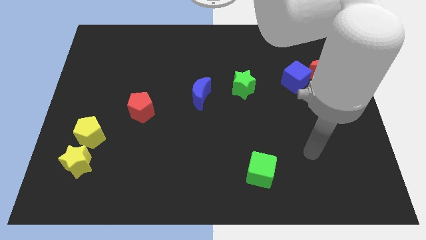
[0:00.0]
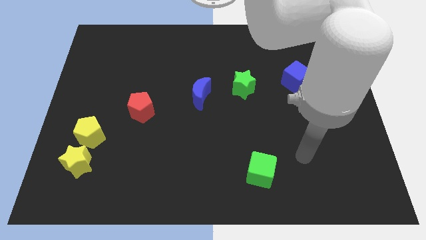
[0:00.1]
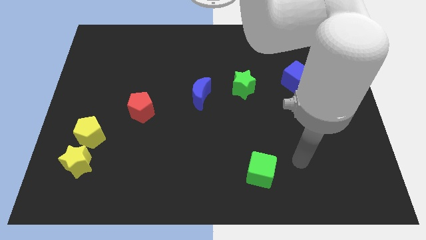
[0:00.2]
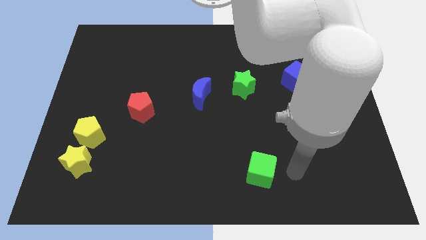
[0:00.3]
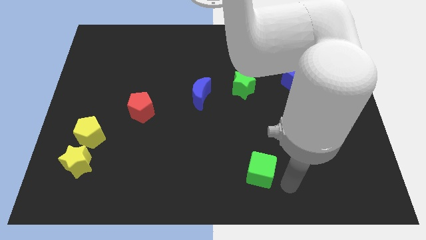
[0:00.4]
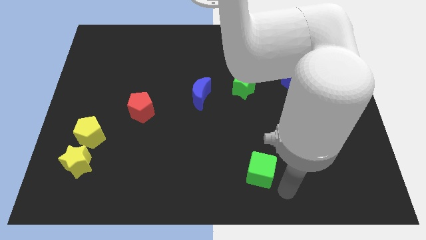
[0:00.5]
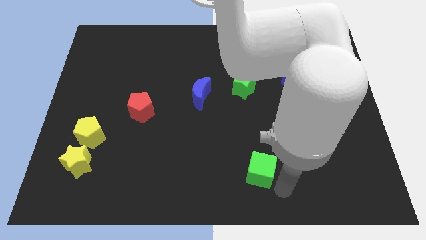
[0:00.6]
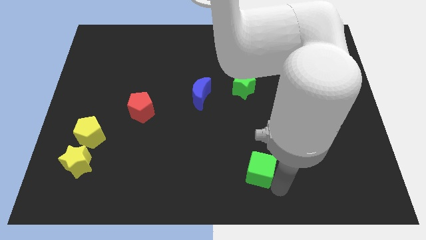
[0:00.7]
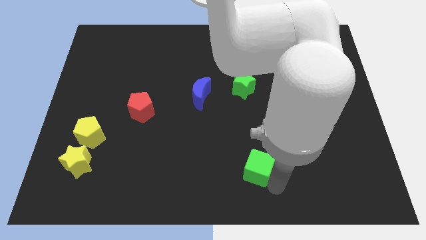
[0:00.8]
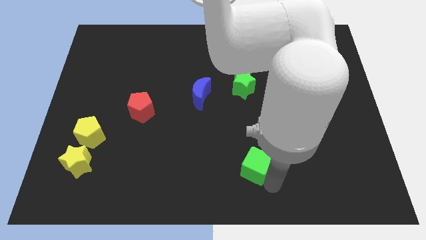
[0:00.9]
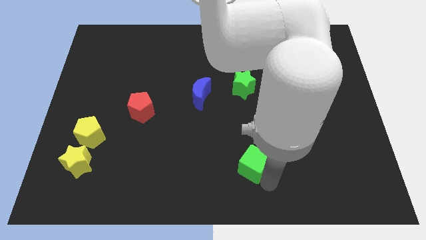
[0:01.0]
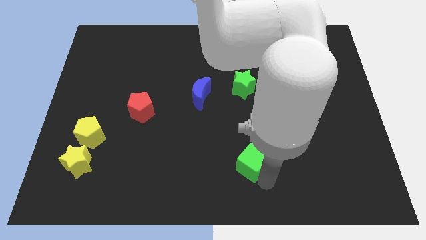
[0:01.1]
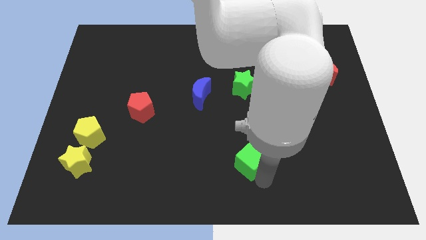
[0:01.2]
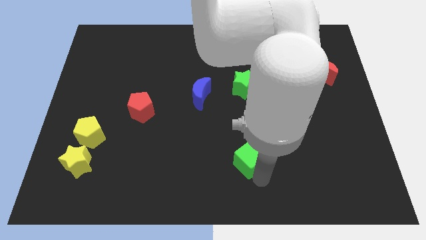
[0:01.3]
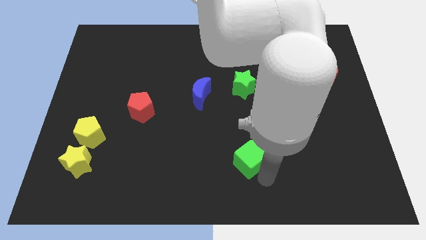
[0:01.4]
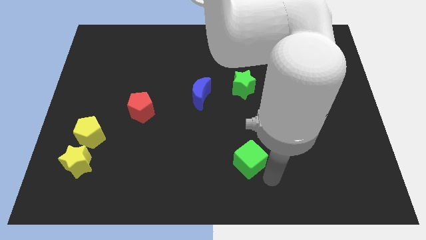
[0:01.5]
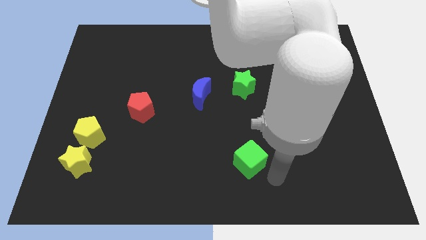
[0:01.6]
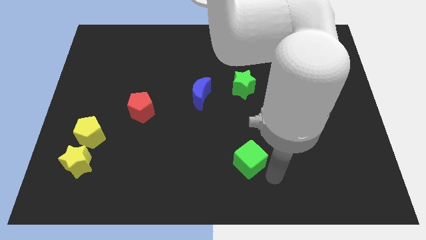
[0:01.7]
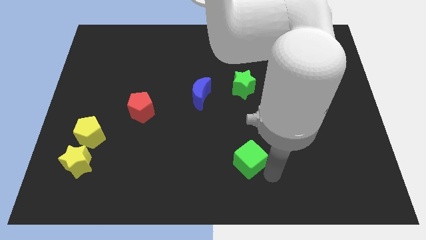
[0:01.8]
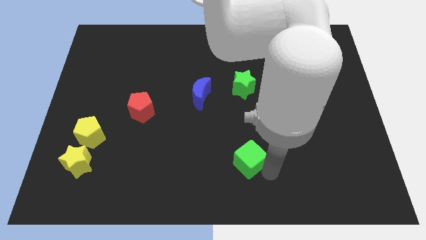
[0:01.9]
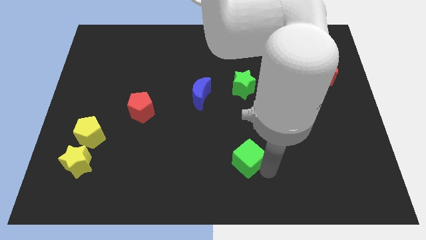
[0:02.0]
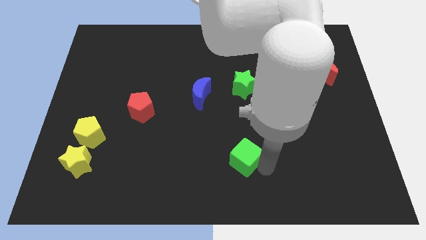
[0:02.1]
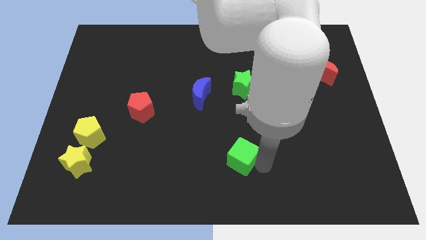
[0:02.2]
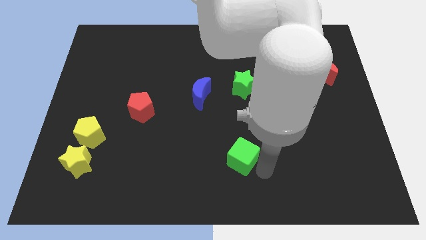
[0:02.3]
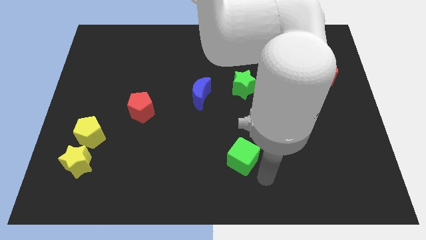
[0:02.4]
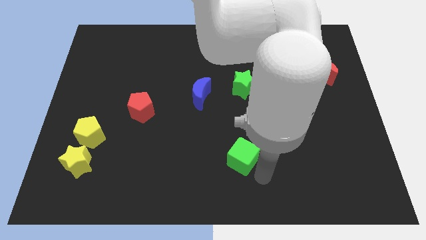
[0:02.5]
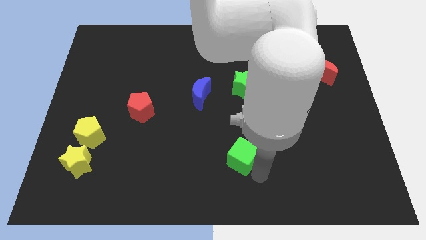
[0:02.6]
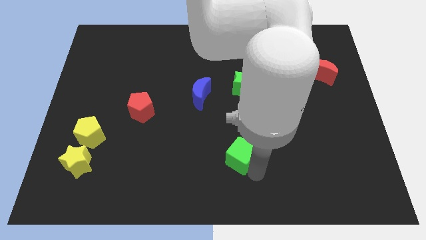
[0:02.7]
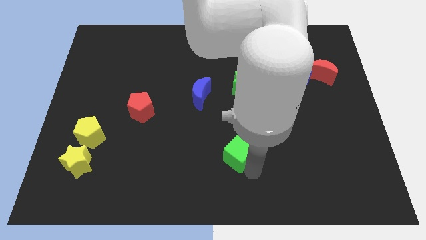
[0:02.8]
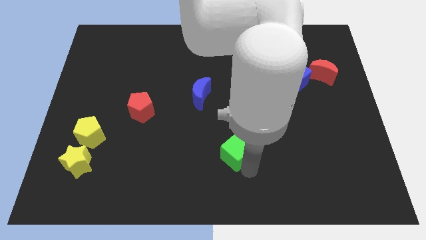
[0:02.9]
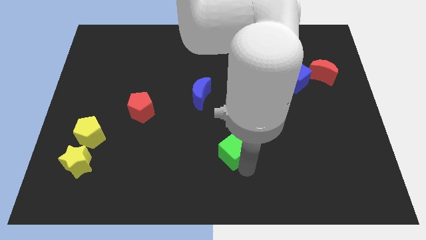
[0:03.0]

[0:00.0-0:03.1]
slide the green cube upwards and to the left diagonally a bit

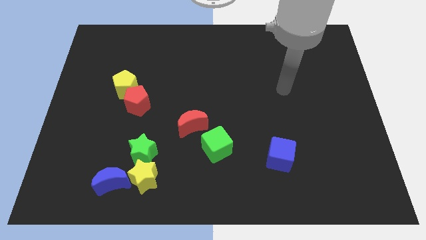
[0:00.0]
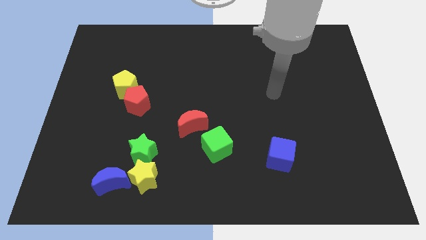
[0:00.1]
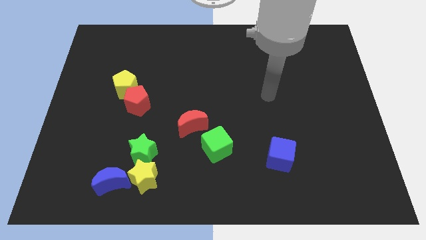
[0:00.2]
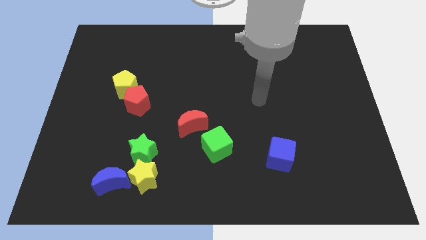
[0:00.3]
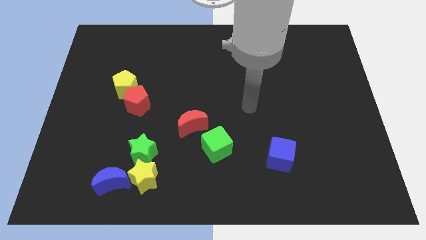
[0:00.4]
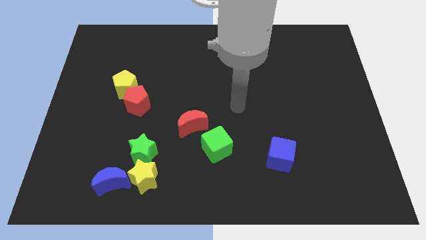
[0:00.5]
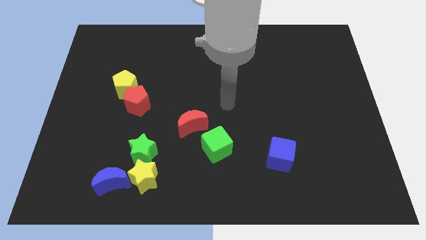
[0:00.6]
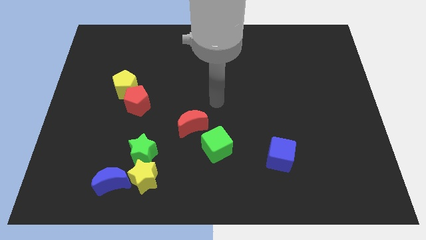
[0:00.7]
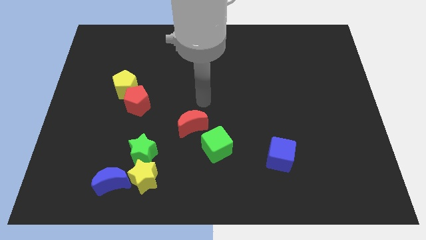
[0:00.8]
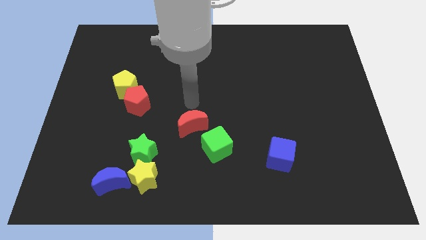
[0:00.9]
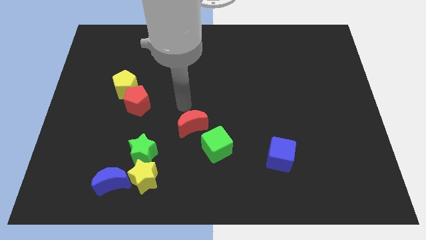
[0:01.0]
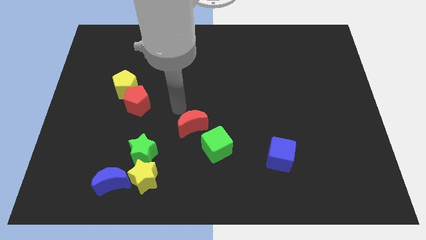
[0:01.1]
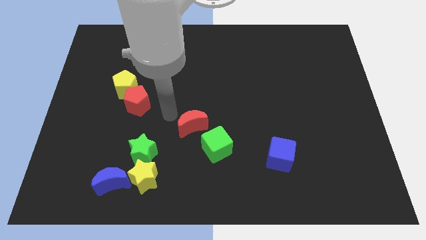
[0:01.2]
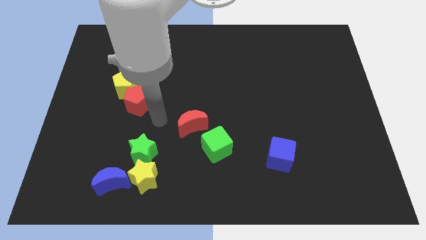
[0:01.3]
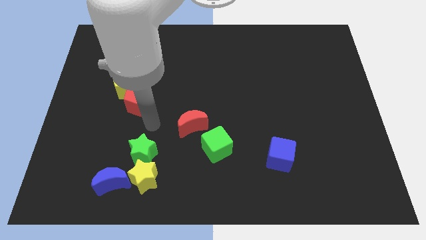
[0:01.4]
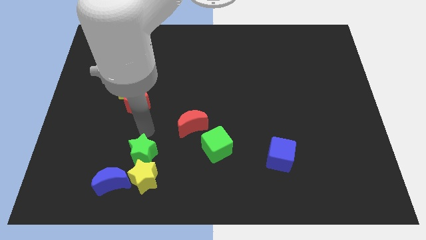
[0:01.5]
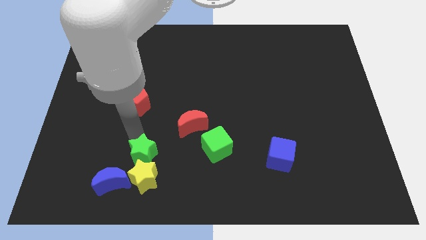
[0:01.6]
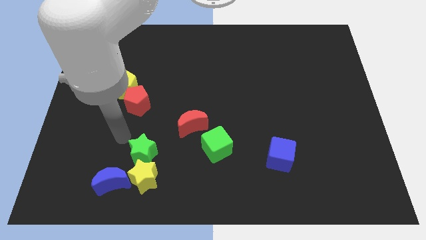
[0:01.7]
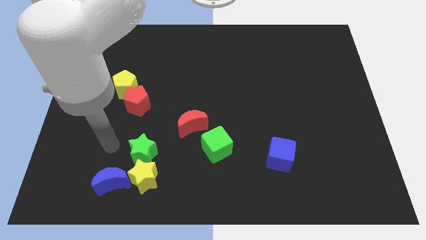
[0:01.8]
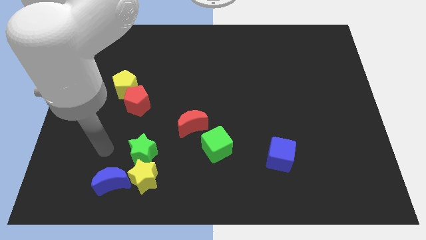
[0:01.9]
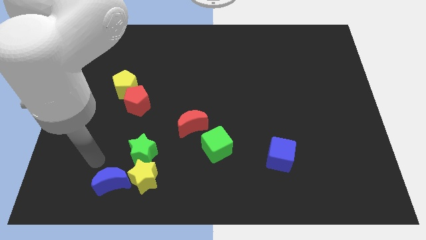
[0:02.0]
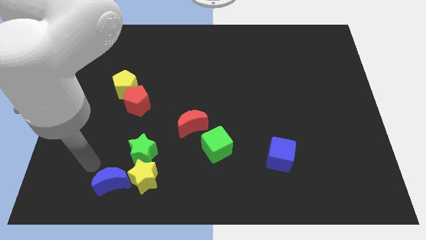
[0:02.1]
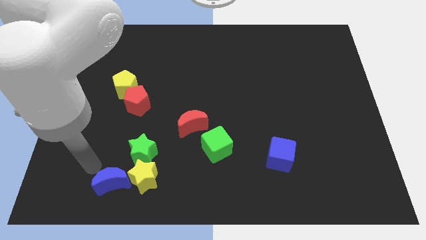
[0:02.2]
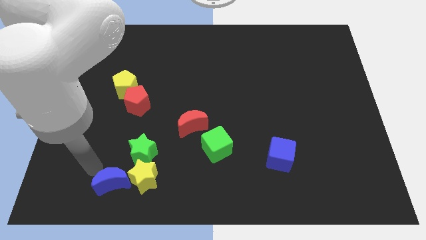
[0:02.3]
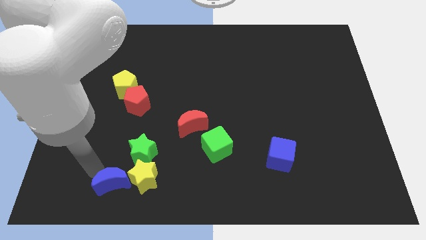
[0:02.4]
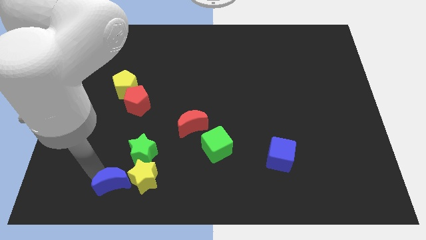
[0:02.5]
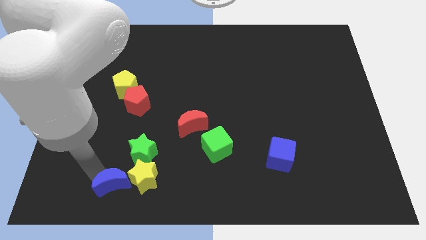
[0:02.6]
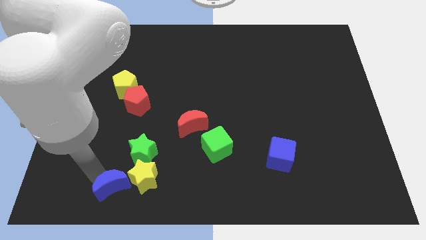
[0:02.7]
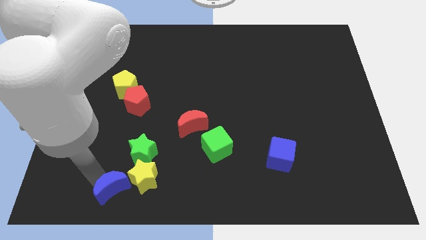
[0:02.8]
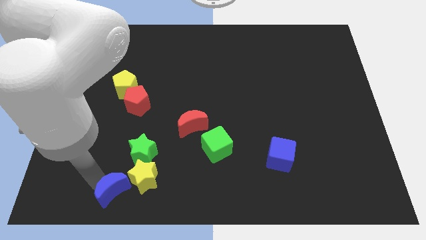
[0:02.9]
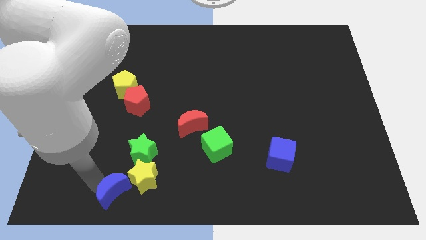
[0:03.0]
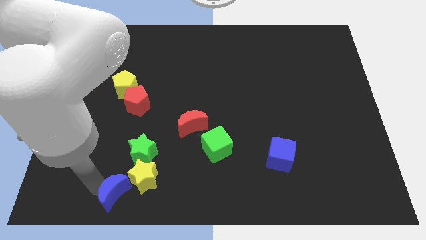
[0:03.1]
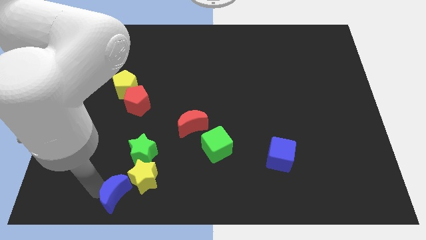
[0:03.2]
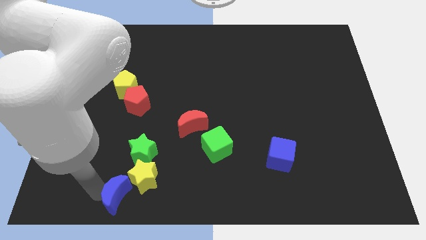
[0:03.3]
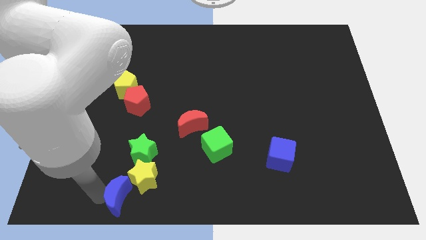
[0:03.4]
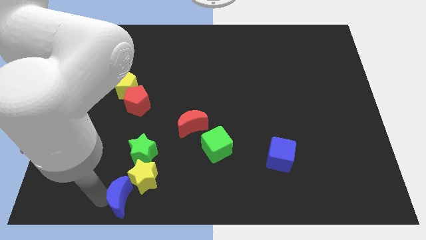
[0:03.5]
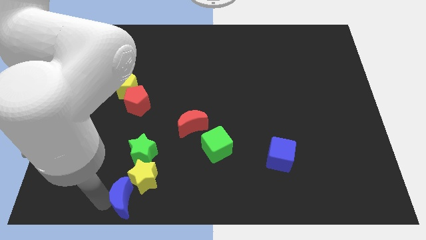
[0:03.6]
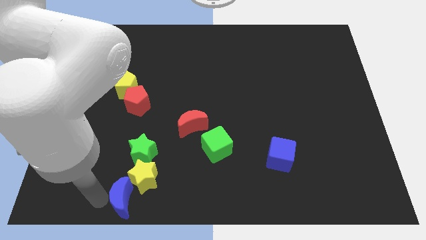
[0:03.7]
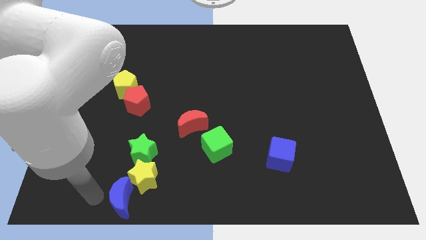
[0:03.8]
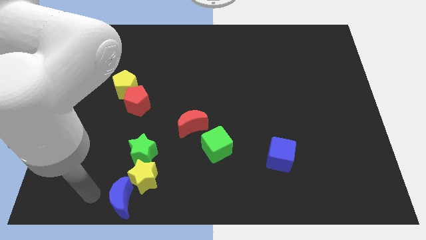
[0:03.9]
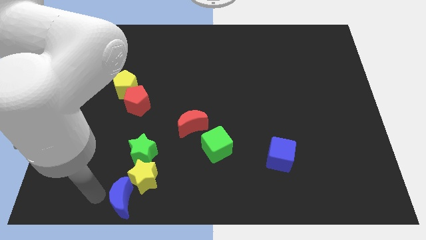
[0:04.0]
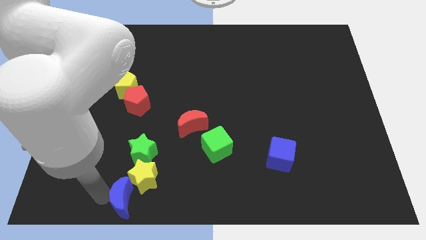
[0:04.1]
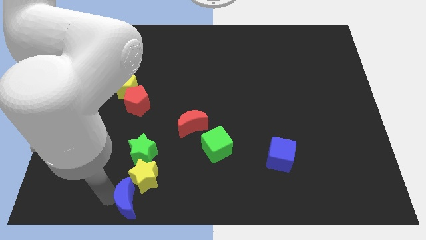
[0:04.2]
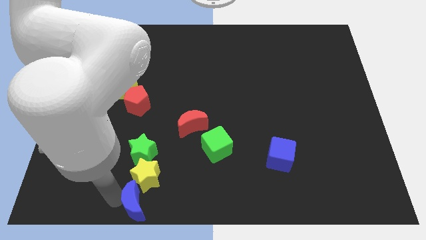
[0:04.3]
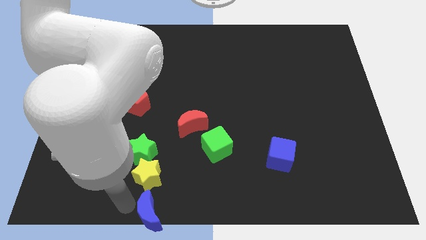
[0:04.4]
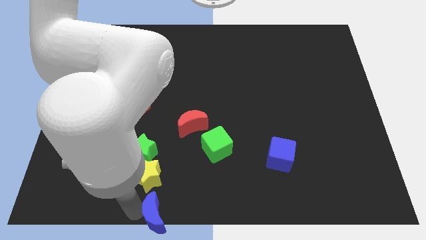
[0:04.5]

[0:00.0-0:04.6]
move the blue moon to the right a little bit

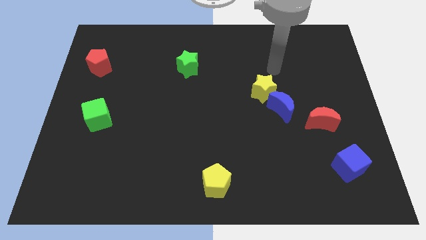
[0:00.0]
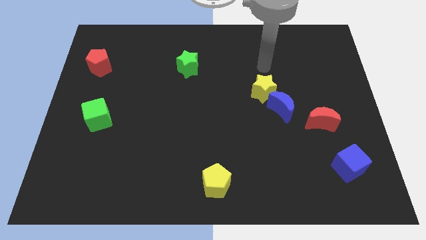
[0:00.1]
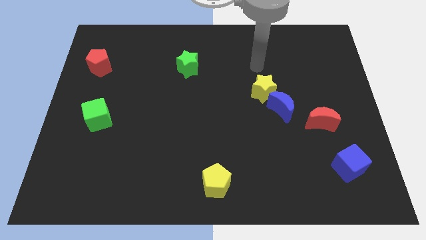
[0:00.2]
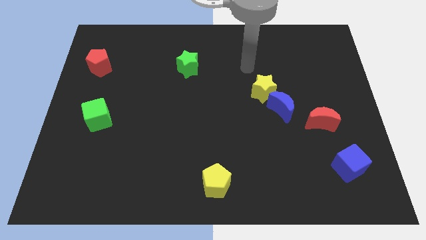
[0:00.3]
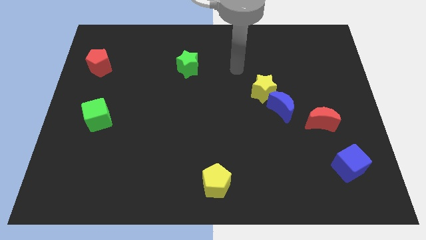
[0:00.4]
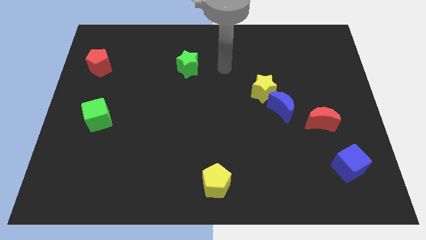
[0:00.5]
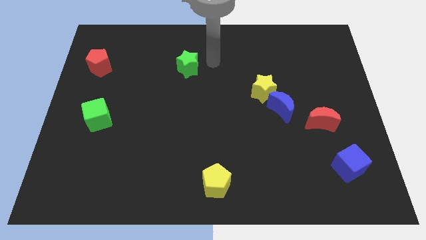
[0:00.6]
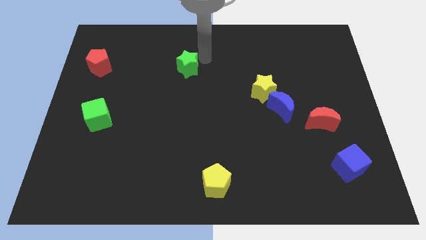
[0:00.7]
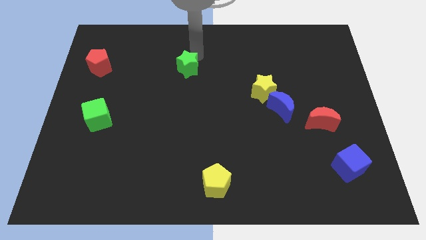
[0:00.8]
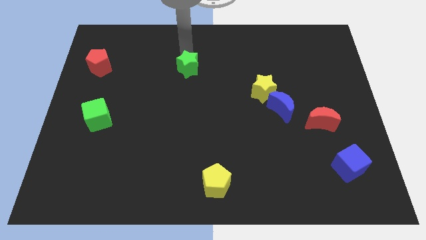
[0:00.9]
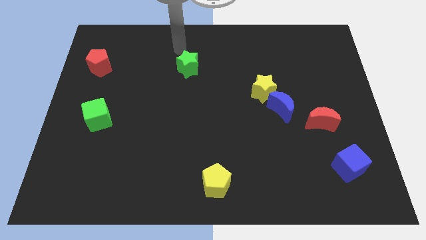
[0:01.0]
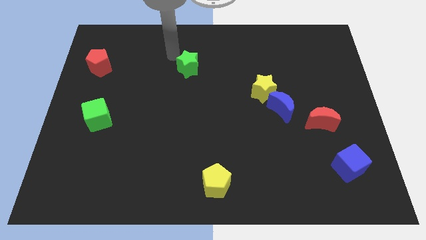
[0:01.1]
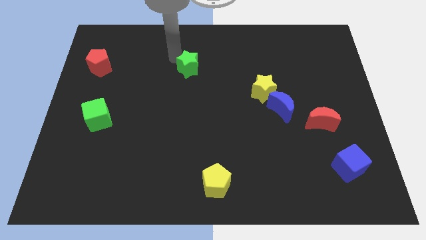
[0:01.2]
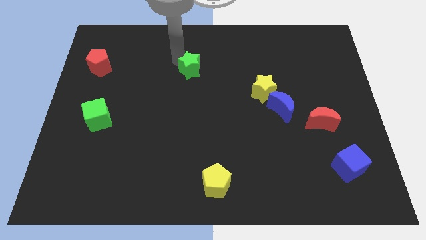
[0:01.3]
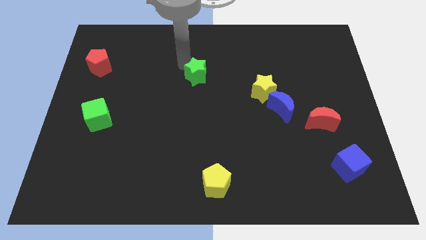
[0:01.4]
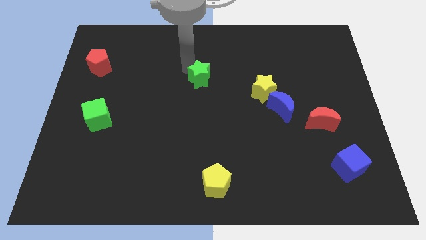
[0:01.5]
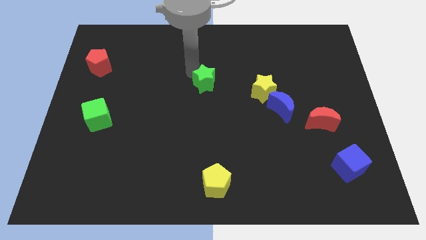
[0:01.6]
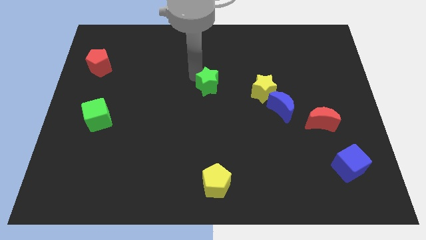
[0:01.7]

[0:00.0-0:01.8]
slightly move the green star diagonally downwards and right
